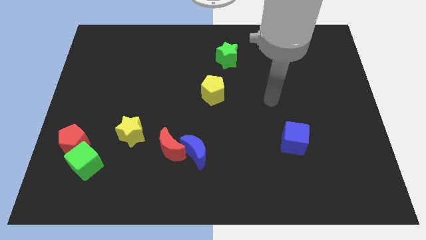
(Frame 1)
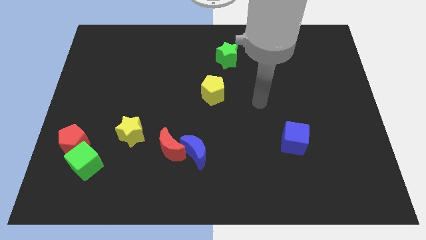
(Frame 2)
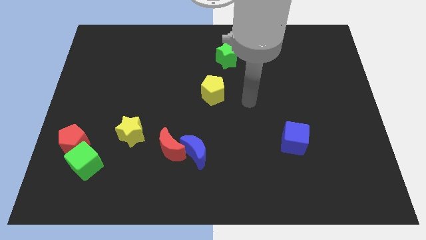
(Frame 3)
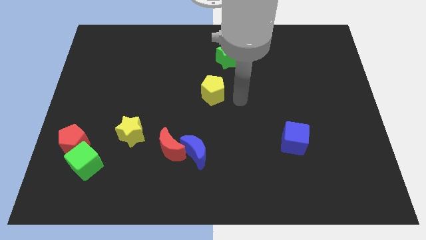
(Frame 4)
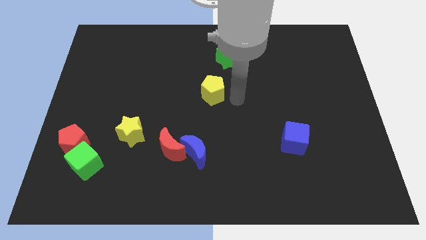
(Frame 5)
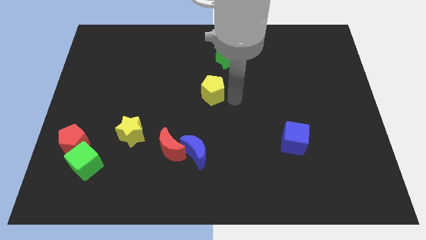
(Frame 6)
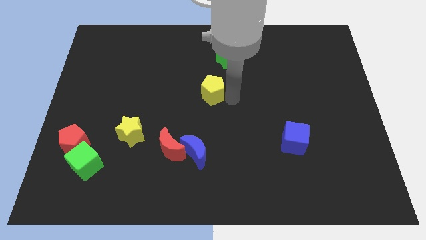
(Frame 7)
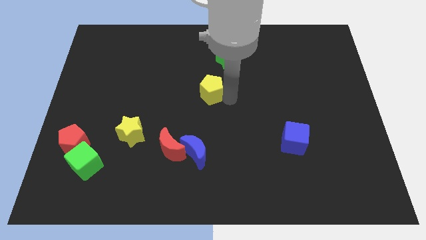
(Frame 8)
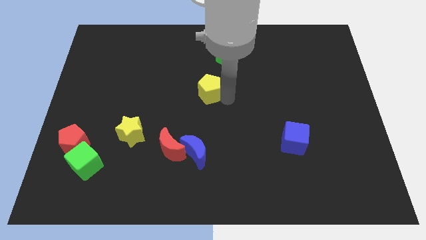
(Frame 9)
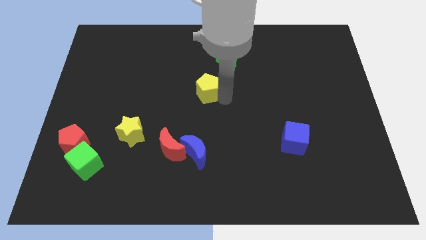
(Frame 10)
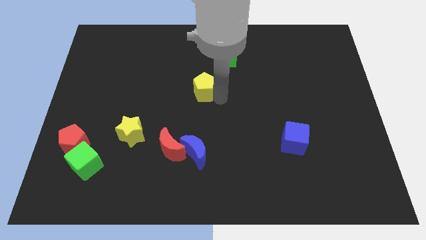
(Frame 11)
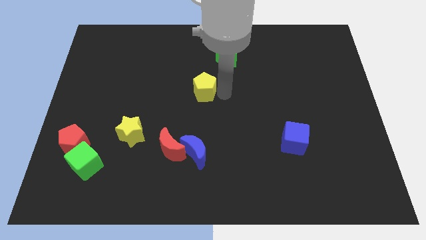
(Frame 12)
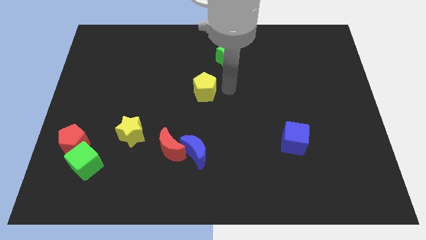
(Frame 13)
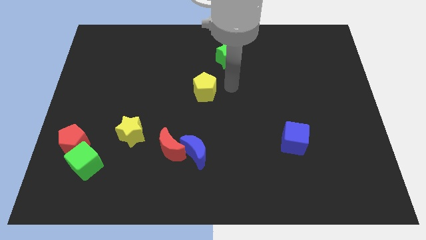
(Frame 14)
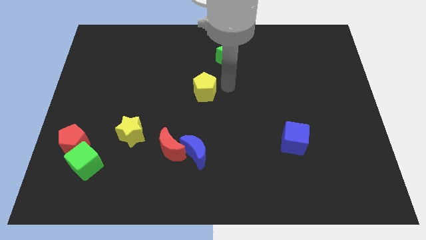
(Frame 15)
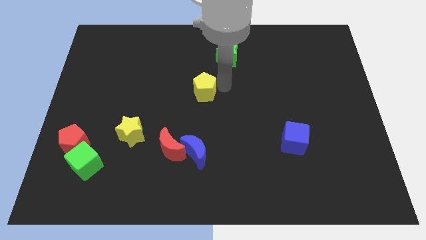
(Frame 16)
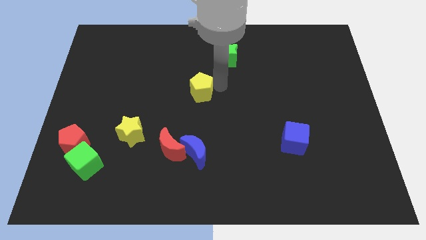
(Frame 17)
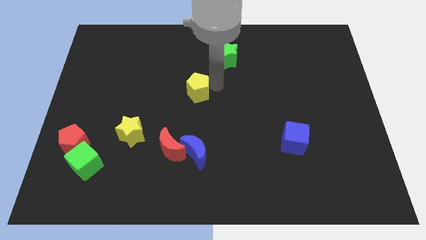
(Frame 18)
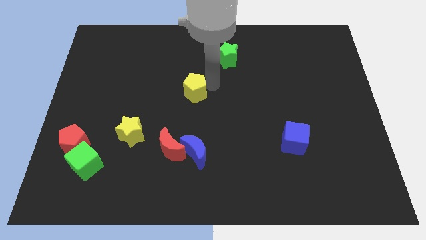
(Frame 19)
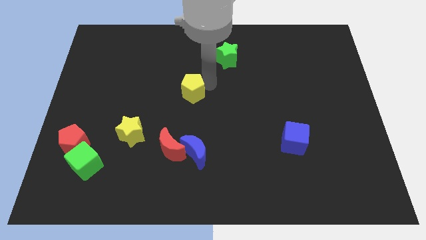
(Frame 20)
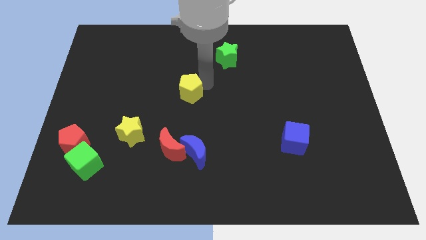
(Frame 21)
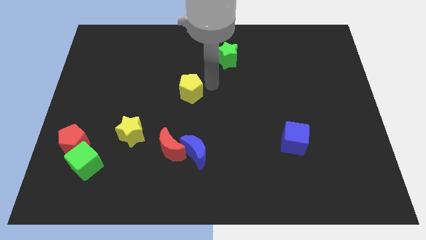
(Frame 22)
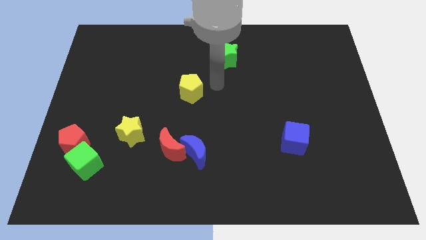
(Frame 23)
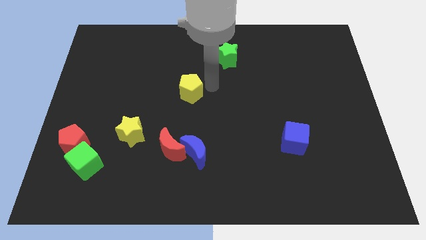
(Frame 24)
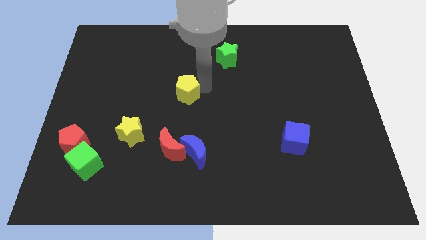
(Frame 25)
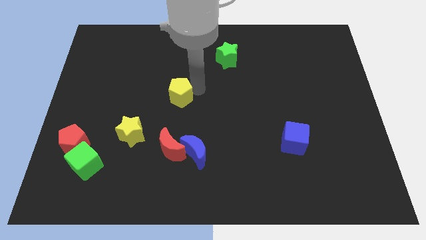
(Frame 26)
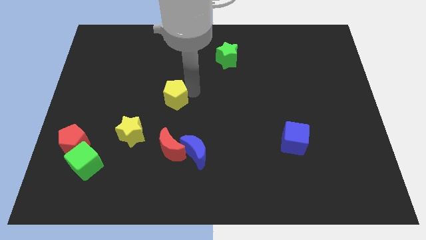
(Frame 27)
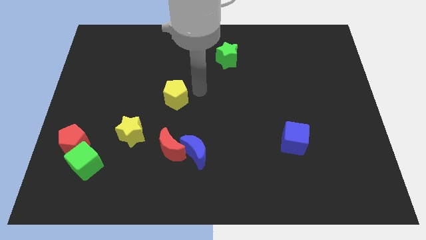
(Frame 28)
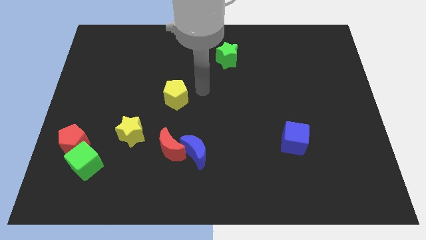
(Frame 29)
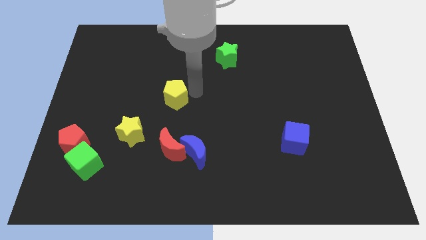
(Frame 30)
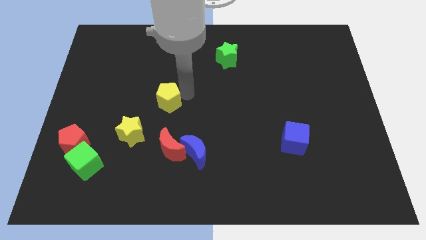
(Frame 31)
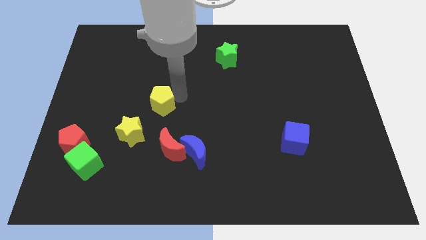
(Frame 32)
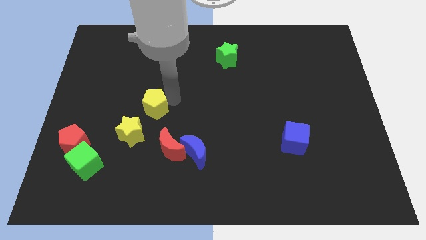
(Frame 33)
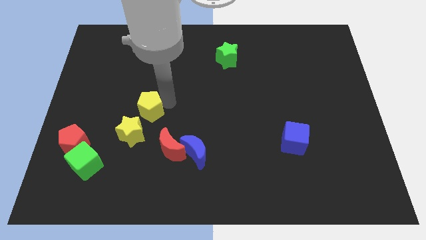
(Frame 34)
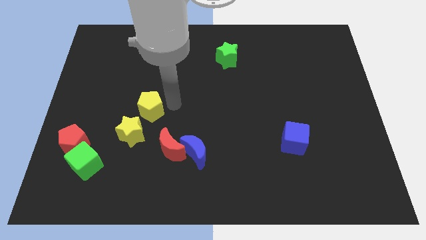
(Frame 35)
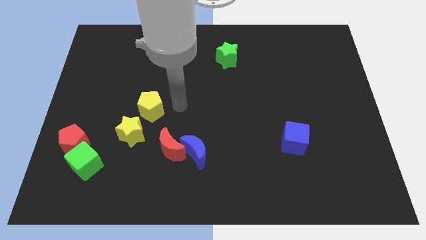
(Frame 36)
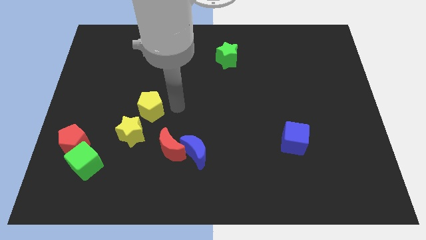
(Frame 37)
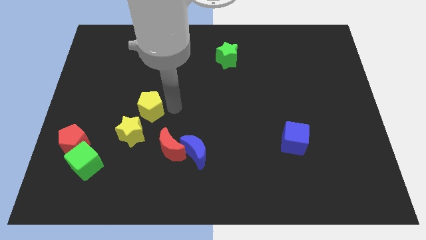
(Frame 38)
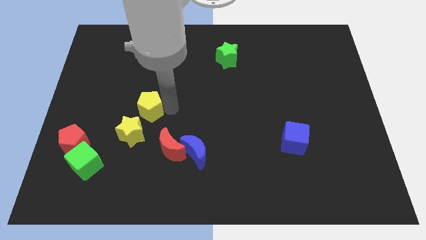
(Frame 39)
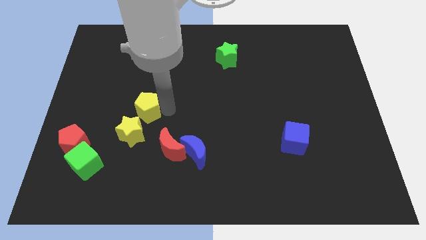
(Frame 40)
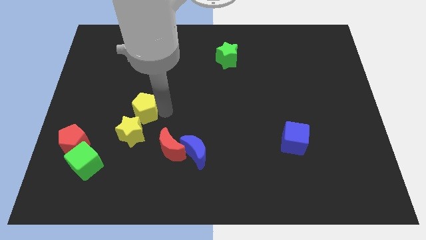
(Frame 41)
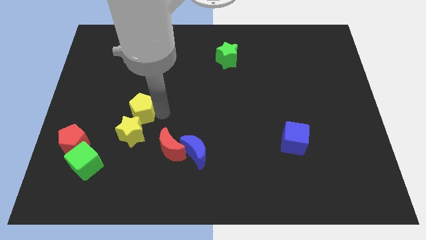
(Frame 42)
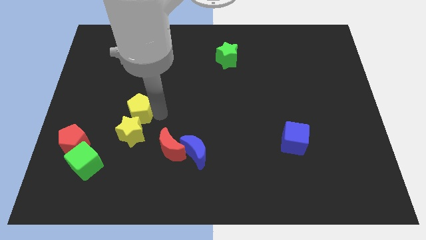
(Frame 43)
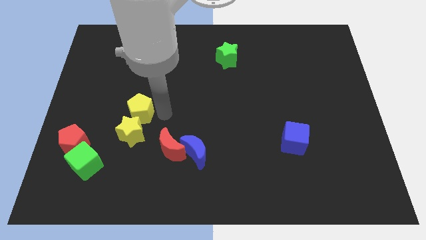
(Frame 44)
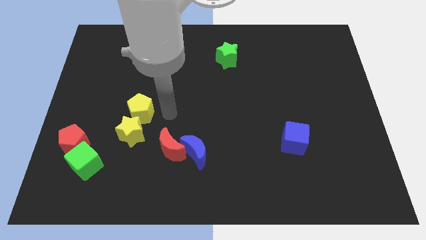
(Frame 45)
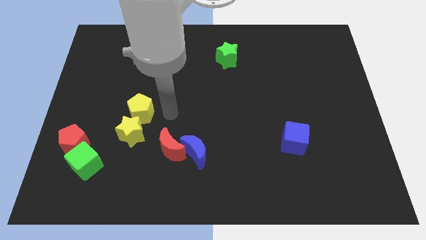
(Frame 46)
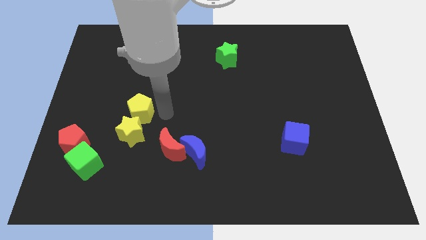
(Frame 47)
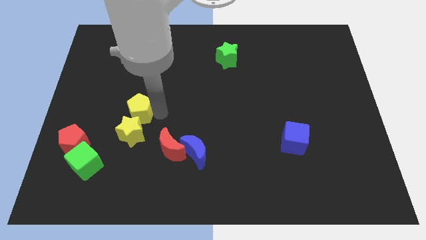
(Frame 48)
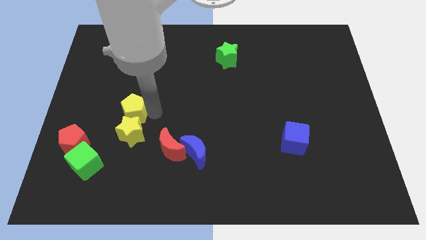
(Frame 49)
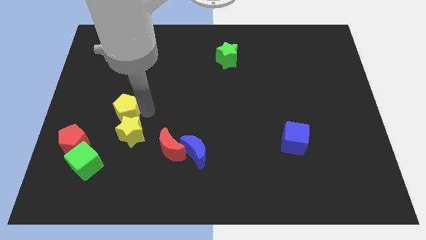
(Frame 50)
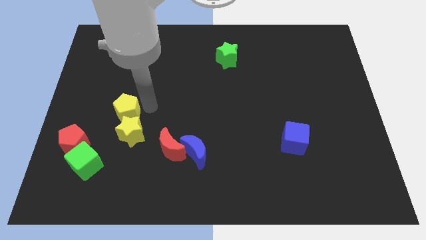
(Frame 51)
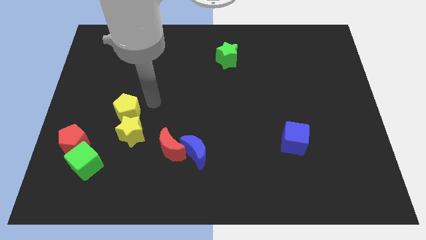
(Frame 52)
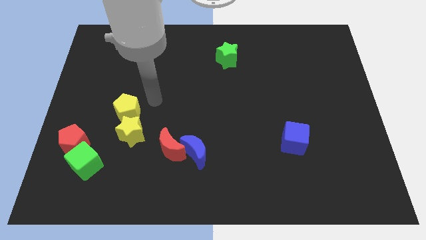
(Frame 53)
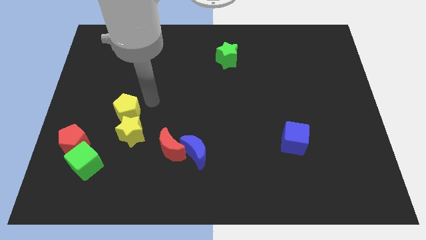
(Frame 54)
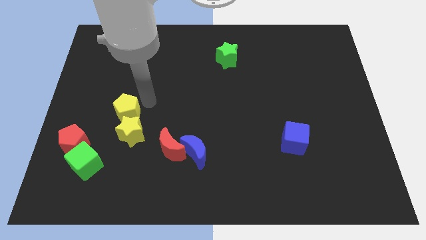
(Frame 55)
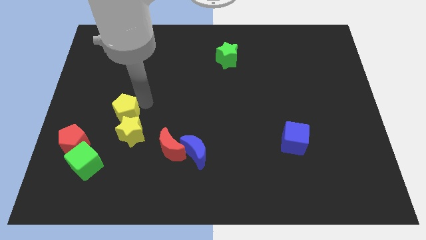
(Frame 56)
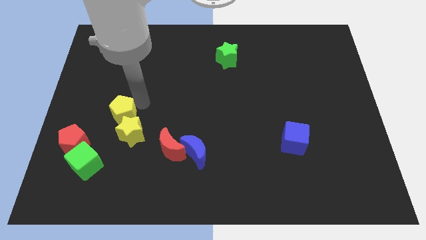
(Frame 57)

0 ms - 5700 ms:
move the yellow pentagon to the top right side of the red pentagon

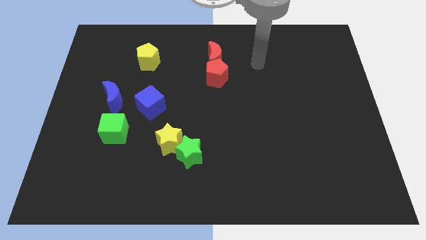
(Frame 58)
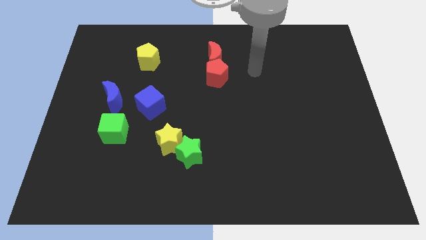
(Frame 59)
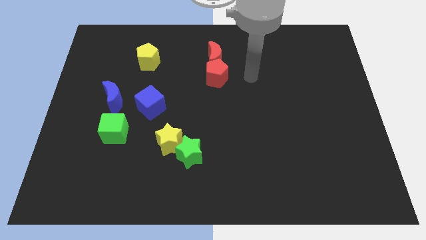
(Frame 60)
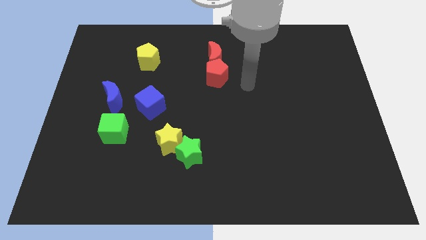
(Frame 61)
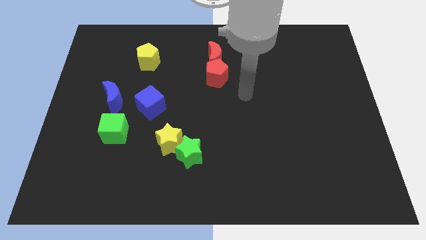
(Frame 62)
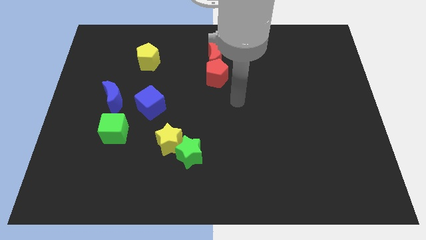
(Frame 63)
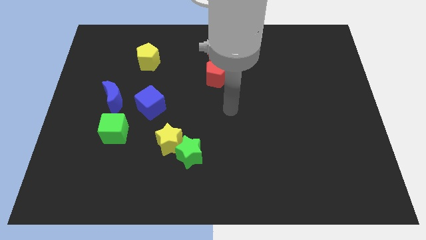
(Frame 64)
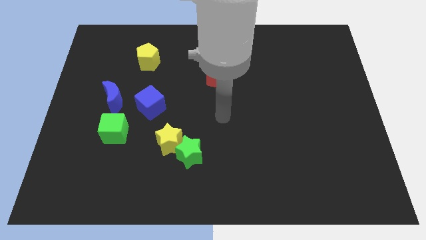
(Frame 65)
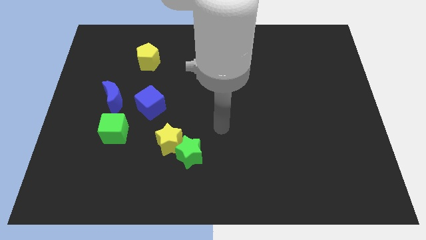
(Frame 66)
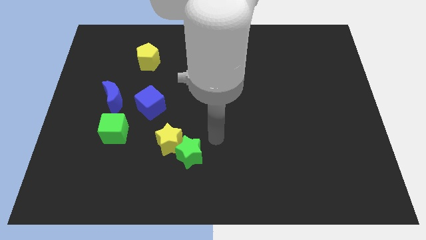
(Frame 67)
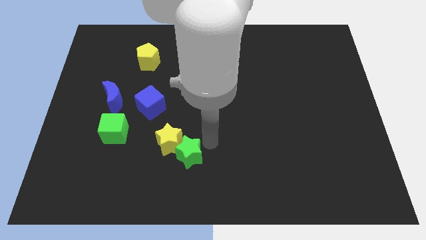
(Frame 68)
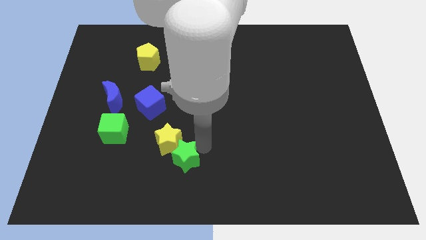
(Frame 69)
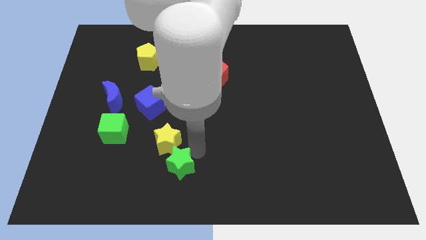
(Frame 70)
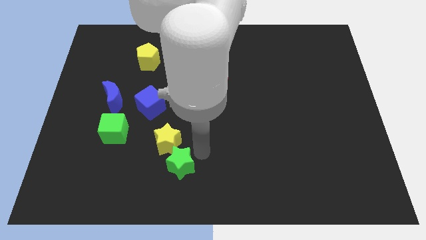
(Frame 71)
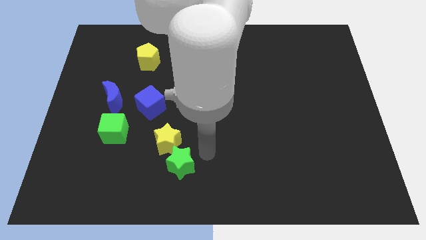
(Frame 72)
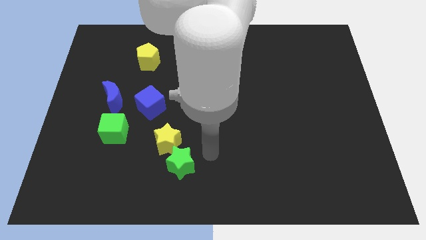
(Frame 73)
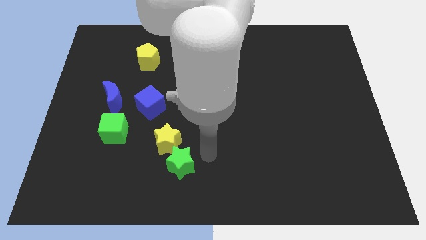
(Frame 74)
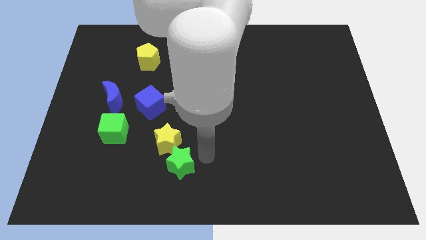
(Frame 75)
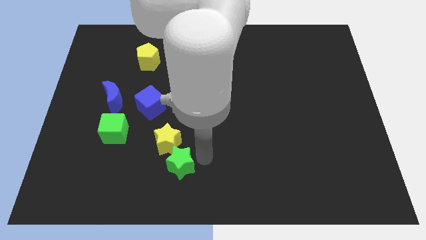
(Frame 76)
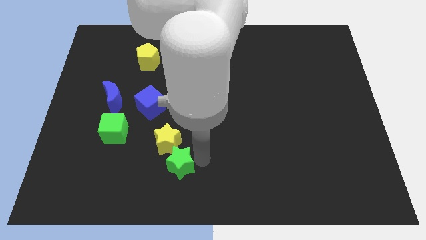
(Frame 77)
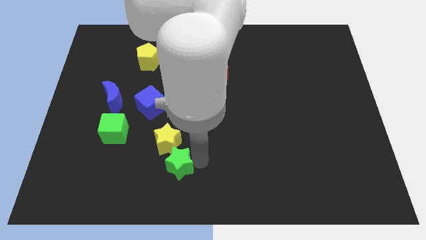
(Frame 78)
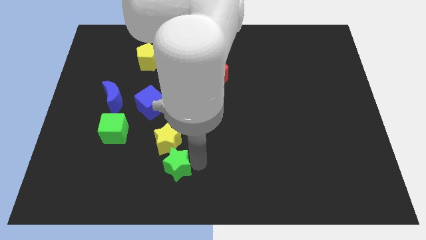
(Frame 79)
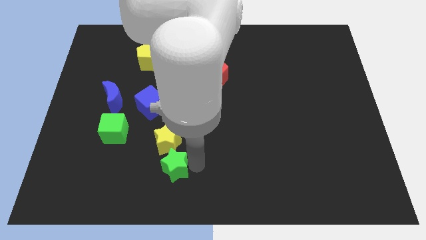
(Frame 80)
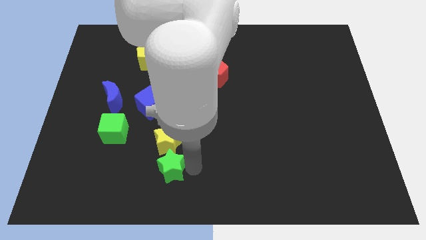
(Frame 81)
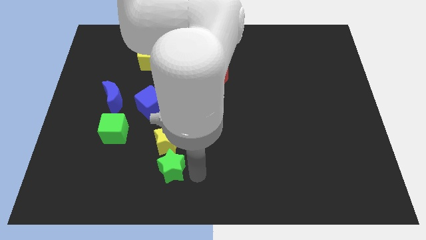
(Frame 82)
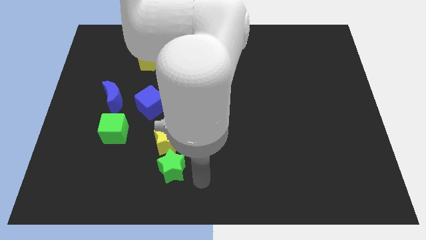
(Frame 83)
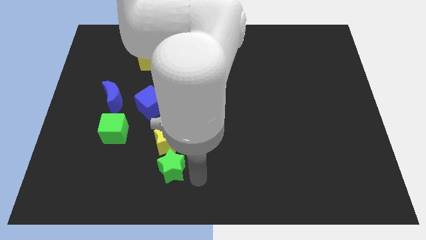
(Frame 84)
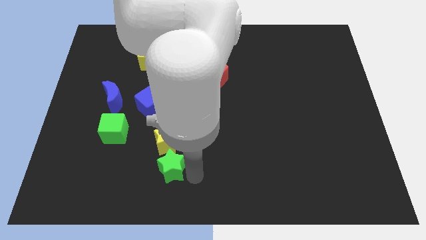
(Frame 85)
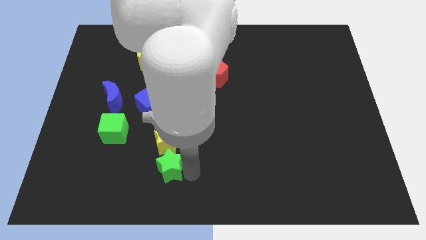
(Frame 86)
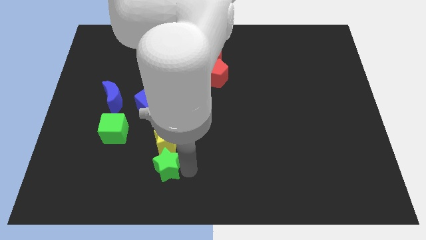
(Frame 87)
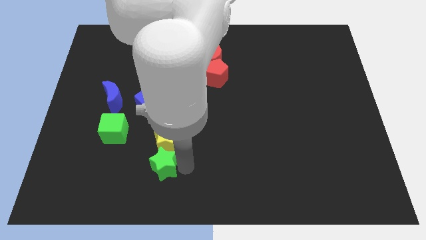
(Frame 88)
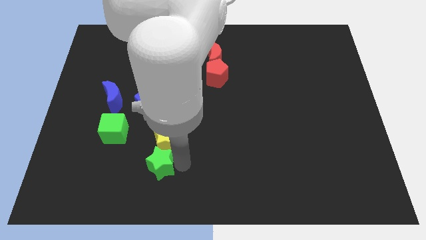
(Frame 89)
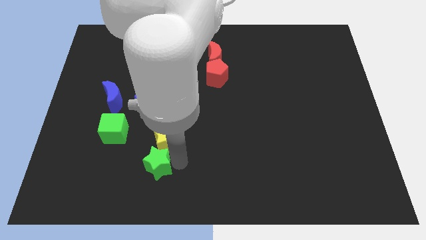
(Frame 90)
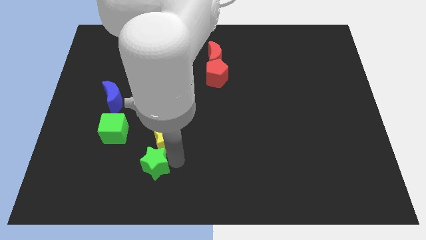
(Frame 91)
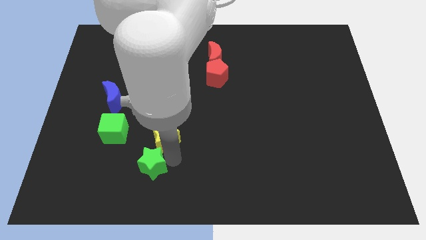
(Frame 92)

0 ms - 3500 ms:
move the green star to the bottom right of the green cube
